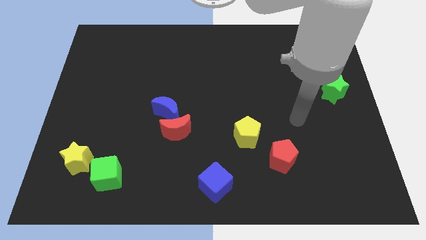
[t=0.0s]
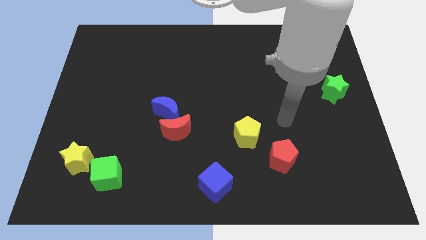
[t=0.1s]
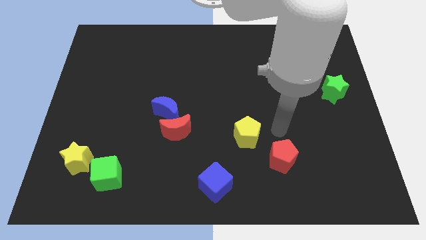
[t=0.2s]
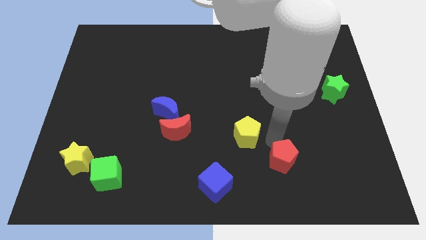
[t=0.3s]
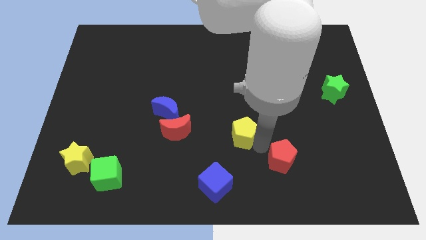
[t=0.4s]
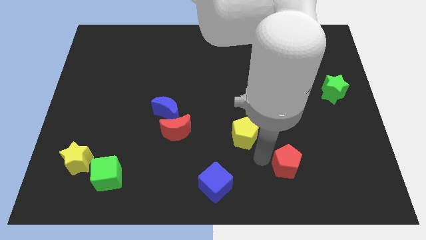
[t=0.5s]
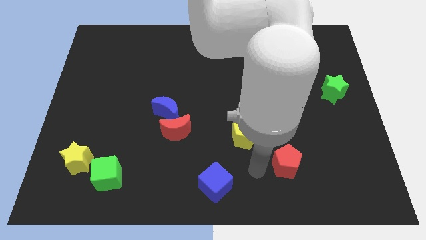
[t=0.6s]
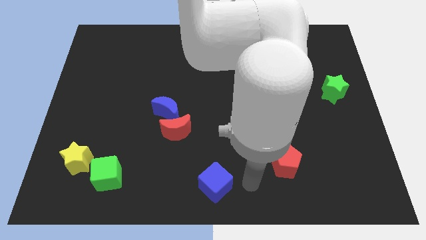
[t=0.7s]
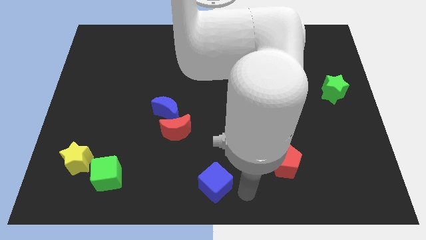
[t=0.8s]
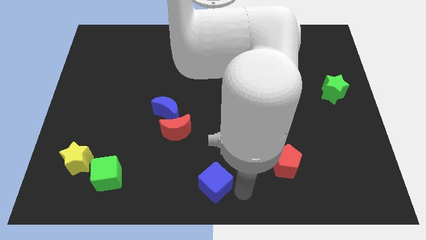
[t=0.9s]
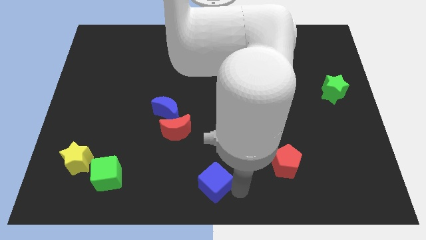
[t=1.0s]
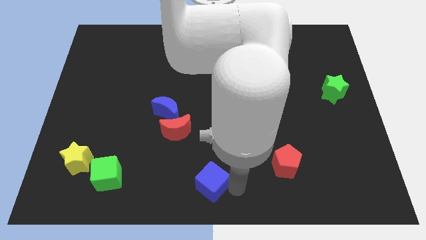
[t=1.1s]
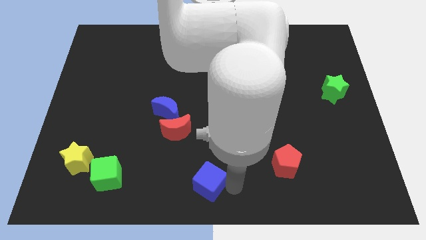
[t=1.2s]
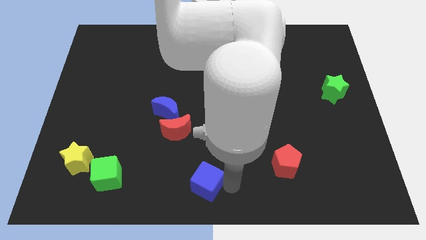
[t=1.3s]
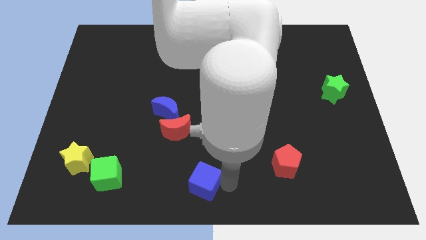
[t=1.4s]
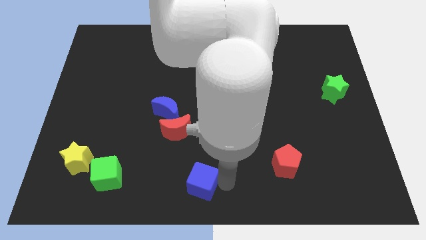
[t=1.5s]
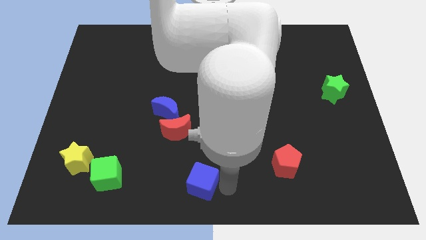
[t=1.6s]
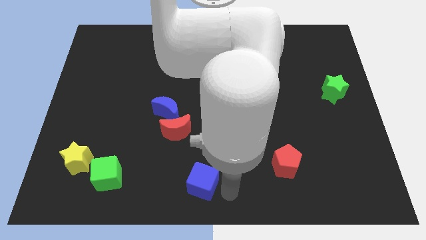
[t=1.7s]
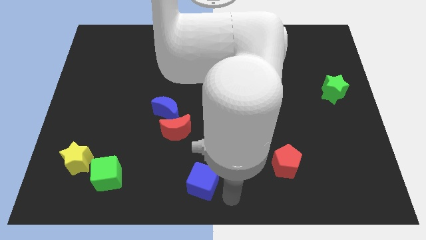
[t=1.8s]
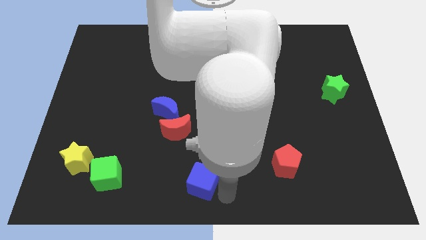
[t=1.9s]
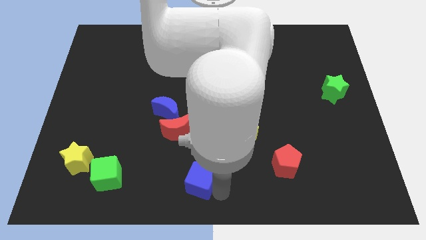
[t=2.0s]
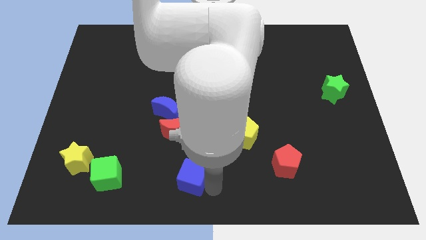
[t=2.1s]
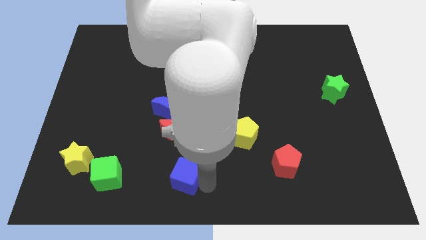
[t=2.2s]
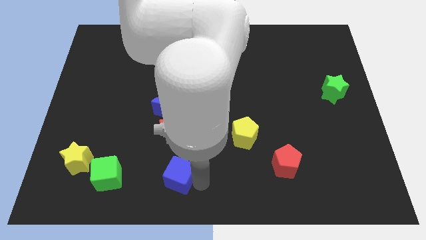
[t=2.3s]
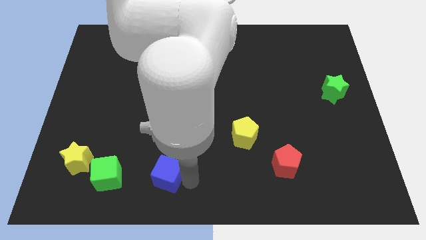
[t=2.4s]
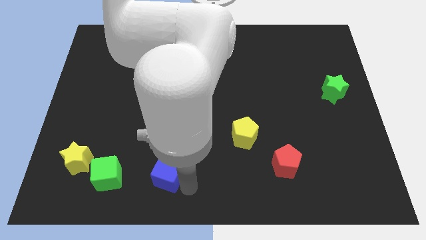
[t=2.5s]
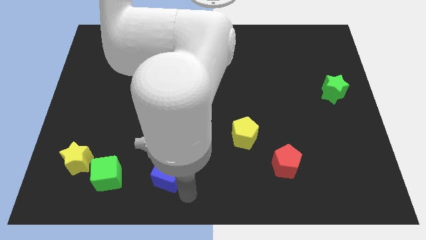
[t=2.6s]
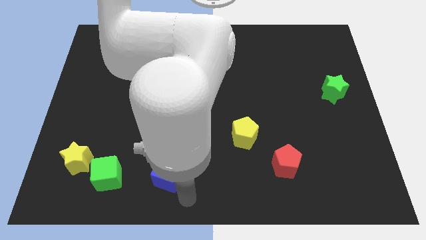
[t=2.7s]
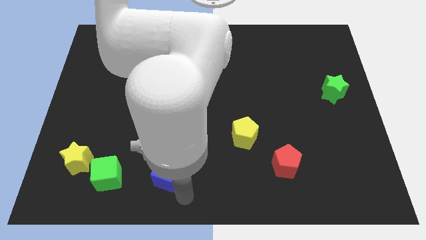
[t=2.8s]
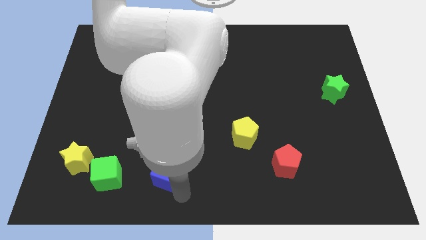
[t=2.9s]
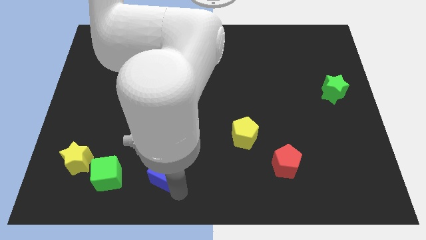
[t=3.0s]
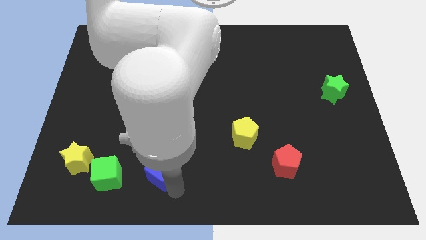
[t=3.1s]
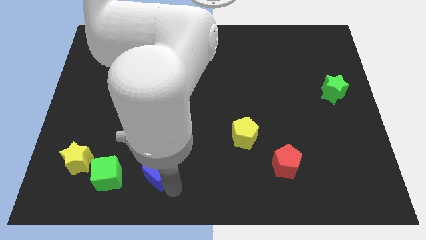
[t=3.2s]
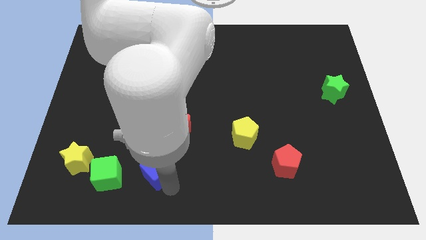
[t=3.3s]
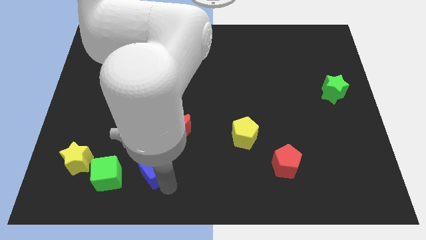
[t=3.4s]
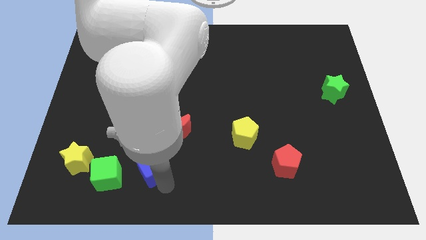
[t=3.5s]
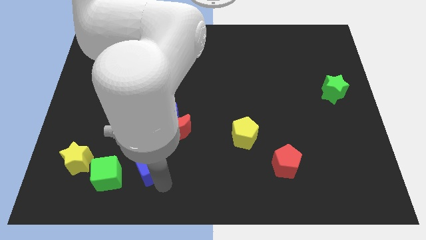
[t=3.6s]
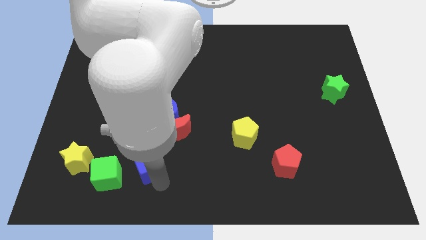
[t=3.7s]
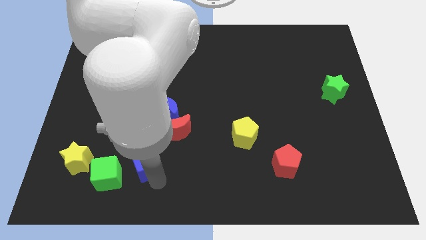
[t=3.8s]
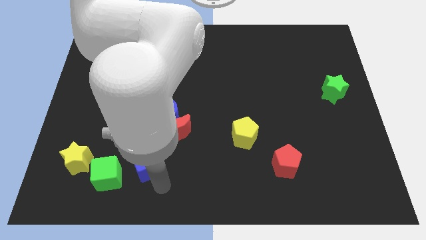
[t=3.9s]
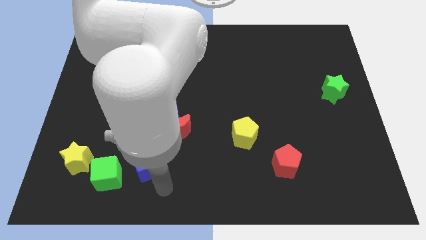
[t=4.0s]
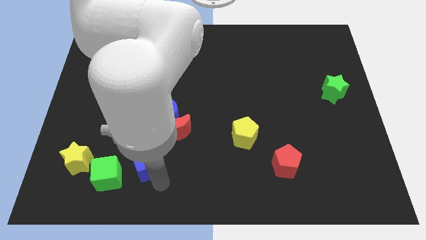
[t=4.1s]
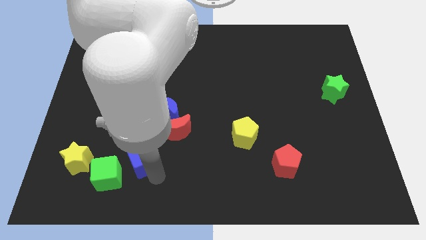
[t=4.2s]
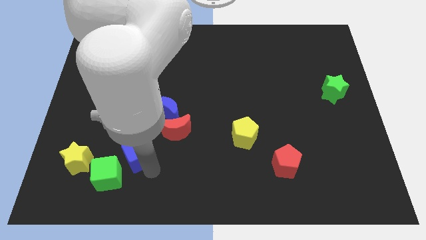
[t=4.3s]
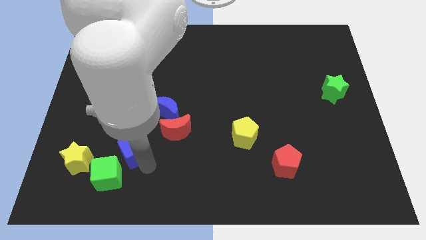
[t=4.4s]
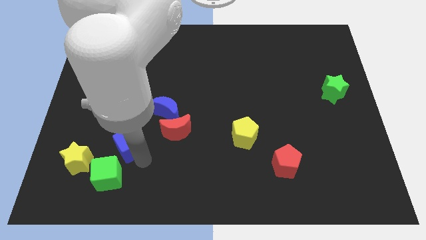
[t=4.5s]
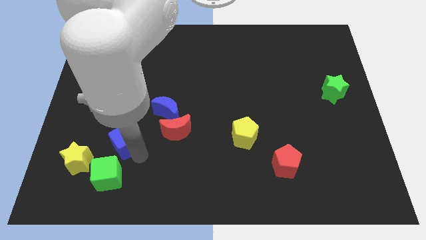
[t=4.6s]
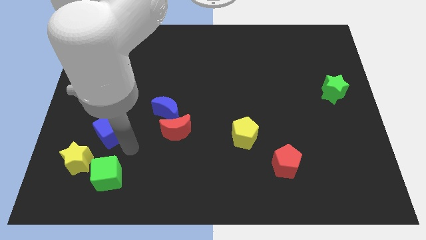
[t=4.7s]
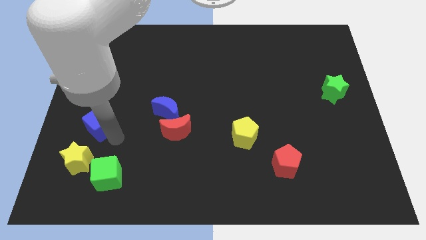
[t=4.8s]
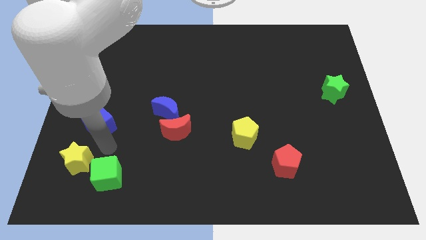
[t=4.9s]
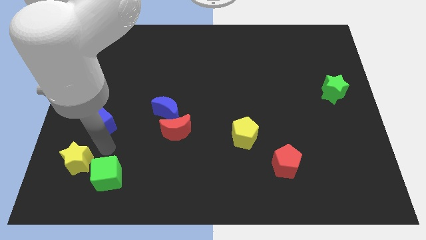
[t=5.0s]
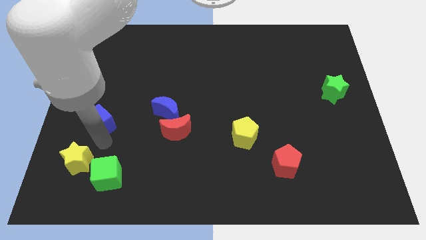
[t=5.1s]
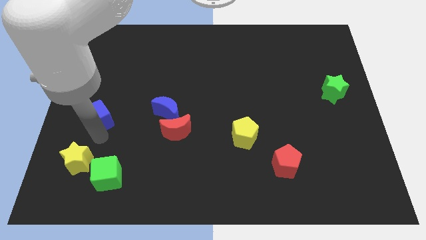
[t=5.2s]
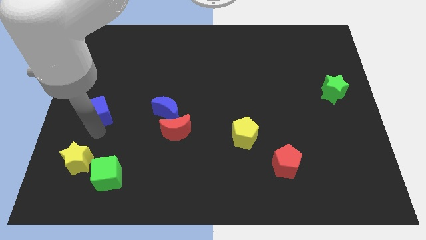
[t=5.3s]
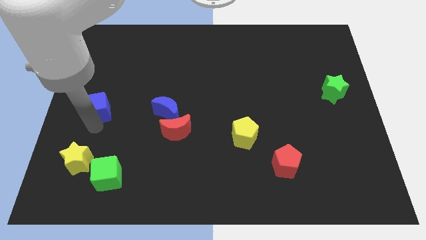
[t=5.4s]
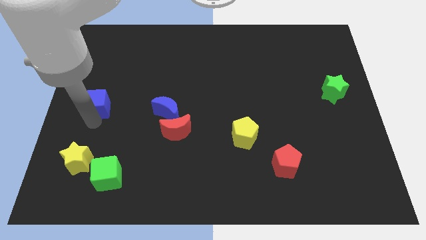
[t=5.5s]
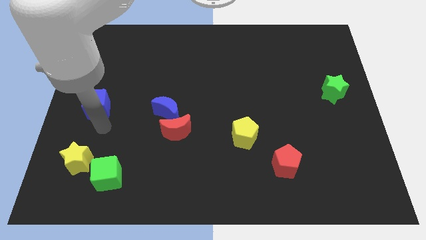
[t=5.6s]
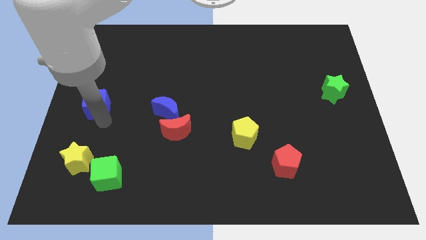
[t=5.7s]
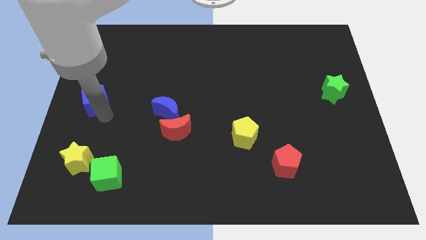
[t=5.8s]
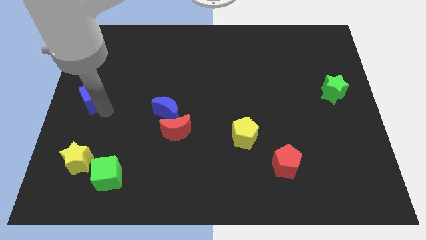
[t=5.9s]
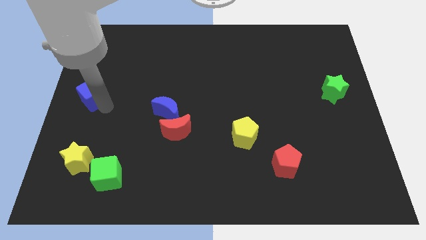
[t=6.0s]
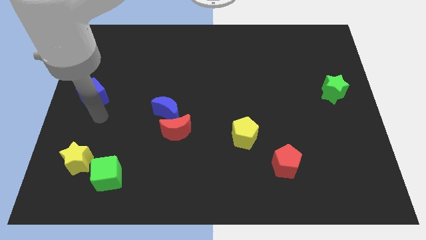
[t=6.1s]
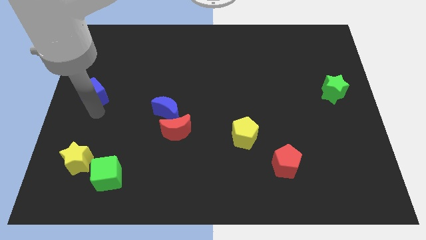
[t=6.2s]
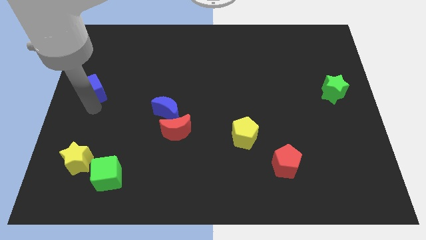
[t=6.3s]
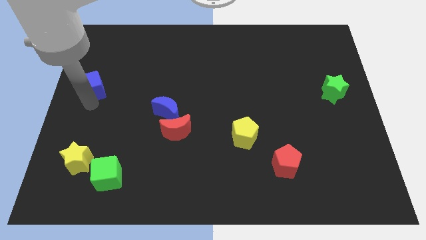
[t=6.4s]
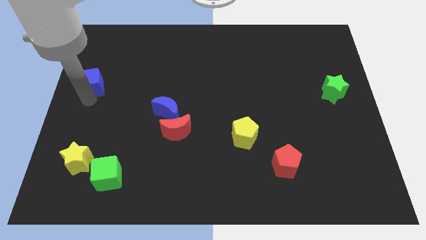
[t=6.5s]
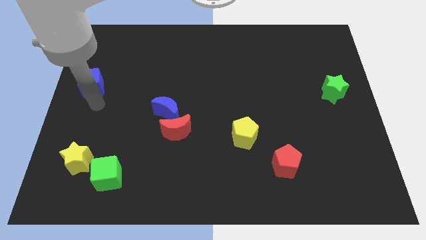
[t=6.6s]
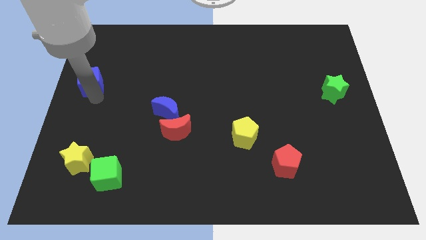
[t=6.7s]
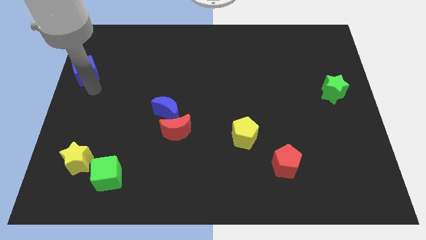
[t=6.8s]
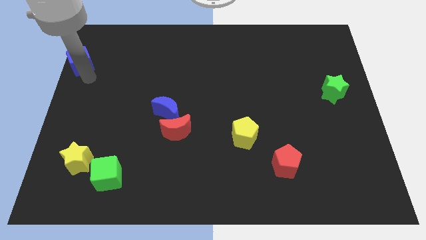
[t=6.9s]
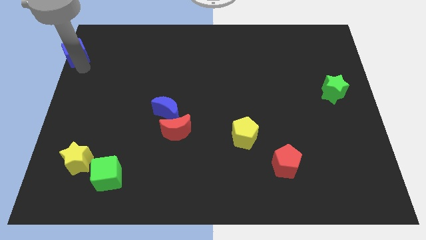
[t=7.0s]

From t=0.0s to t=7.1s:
push the blue cube to the top left of the board
